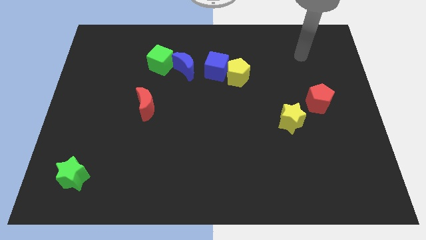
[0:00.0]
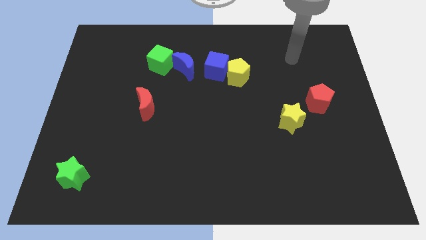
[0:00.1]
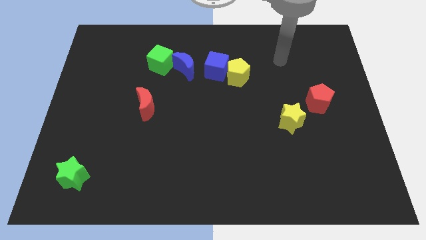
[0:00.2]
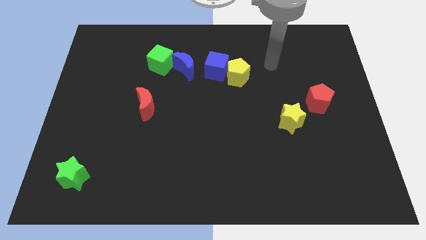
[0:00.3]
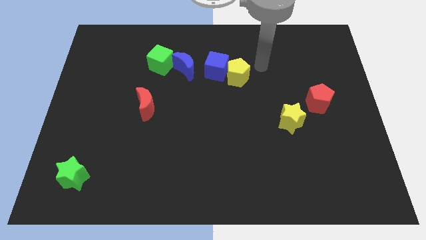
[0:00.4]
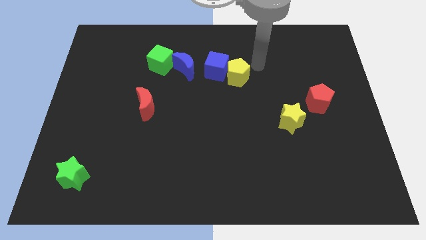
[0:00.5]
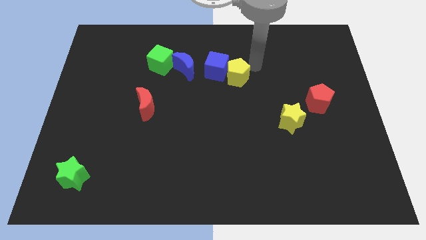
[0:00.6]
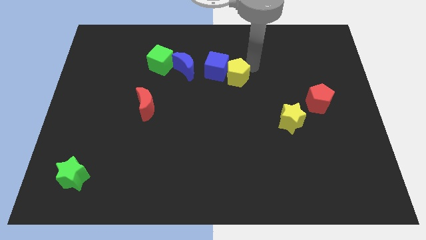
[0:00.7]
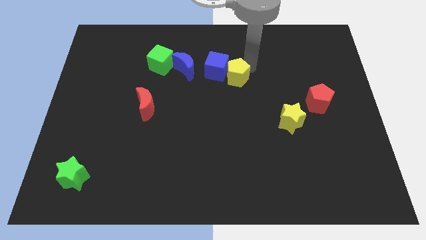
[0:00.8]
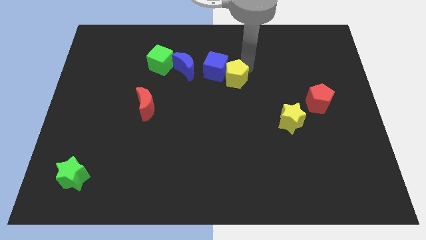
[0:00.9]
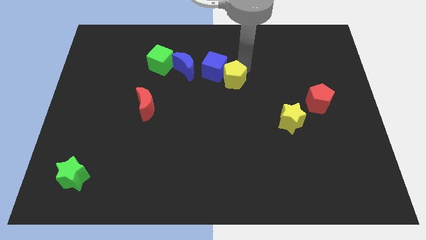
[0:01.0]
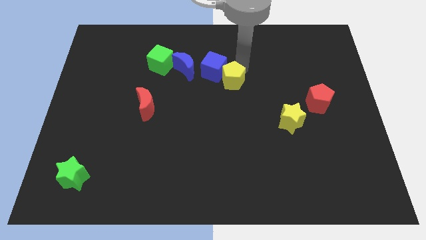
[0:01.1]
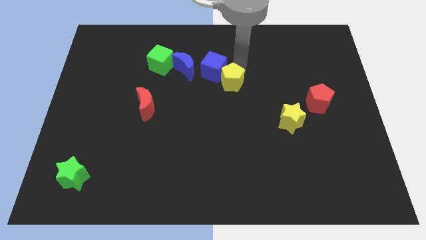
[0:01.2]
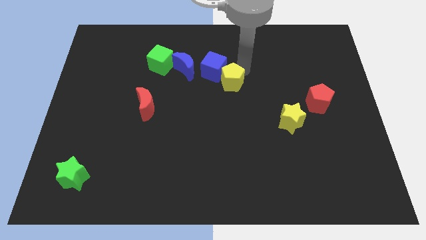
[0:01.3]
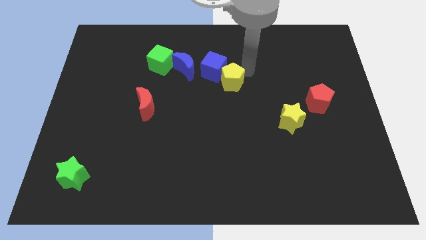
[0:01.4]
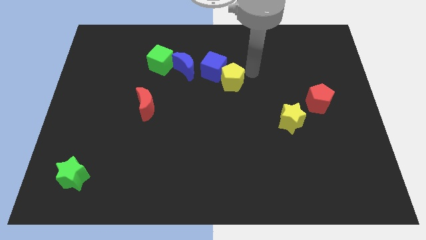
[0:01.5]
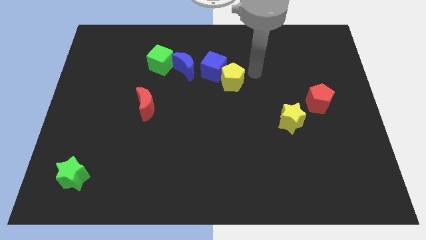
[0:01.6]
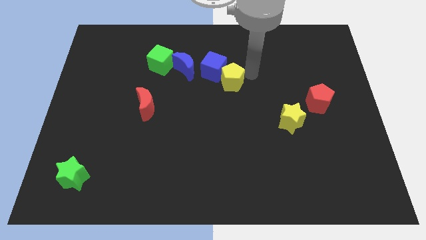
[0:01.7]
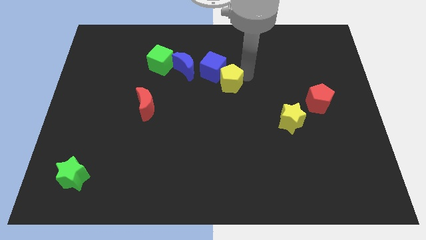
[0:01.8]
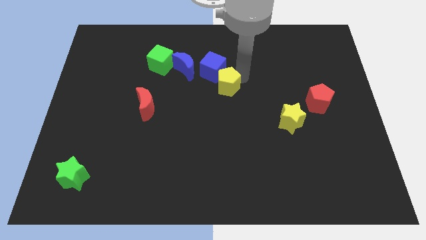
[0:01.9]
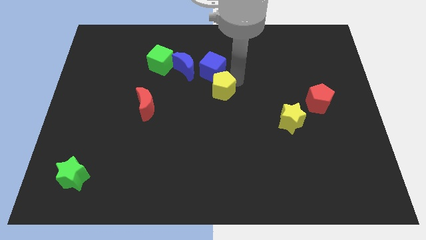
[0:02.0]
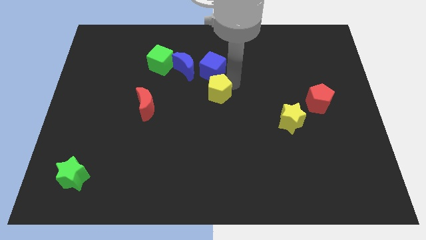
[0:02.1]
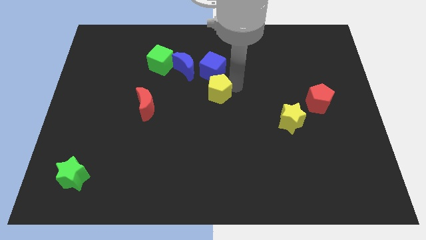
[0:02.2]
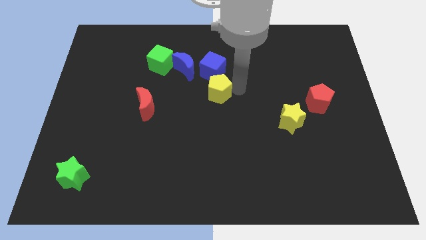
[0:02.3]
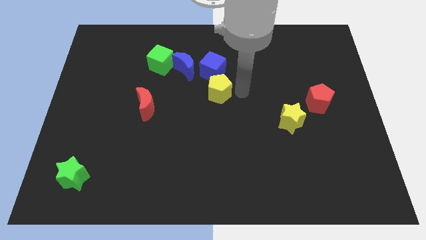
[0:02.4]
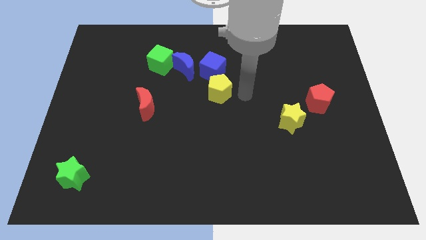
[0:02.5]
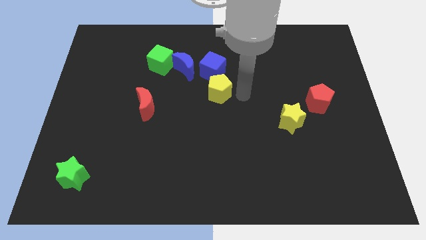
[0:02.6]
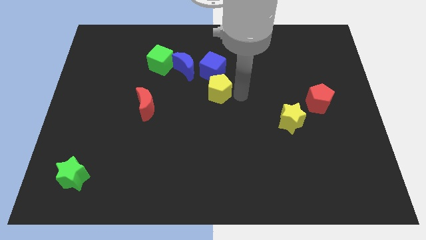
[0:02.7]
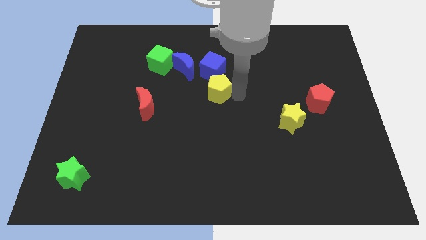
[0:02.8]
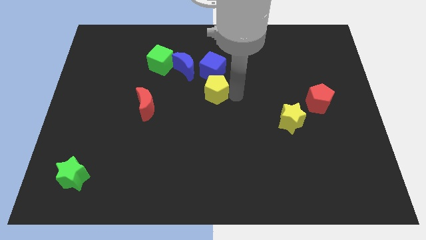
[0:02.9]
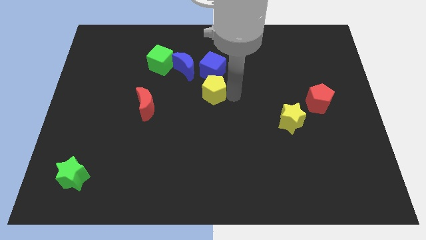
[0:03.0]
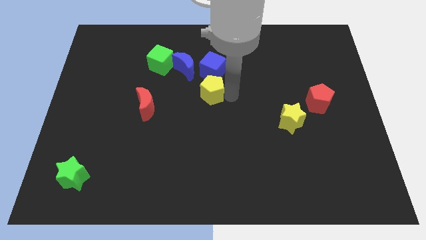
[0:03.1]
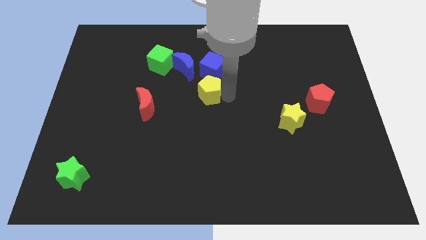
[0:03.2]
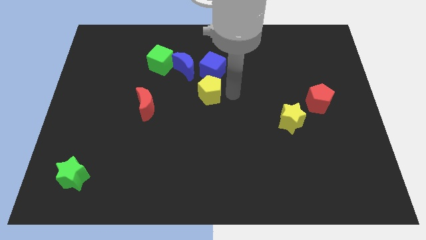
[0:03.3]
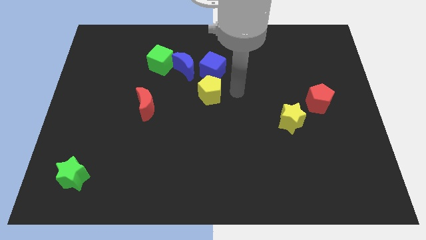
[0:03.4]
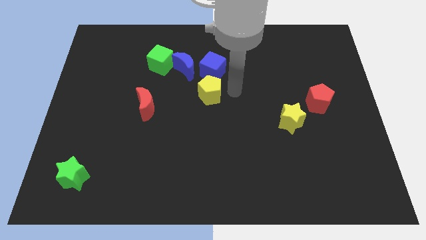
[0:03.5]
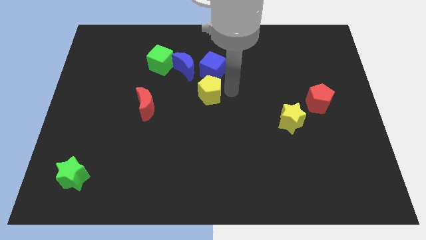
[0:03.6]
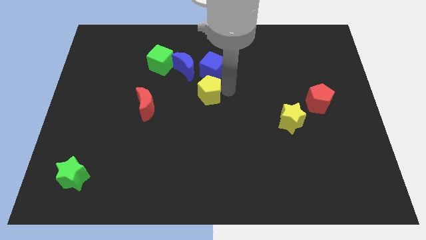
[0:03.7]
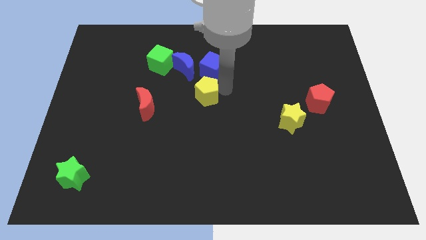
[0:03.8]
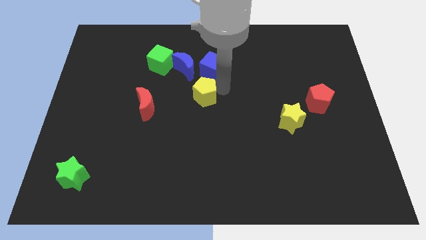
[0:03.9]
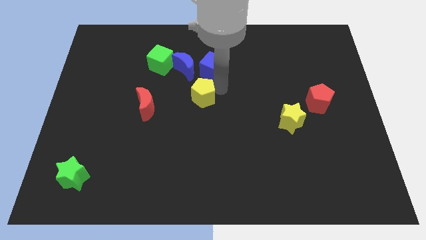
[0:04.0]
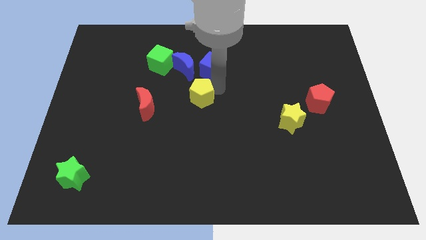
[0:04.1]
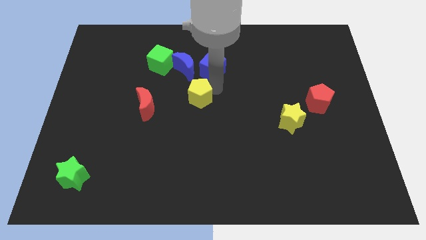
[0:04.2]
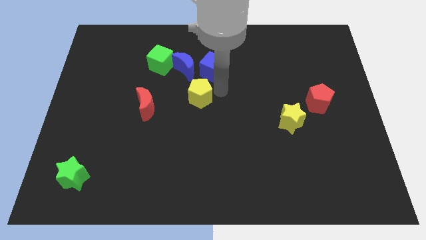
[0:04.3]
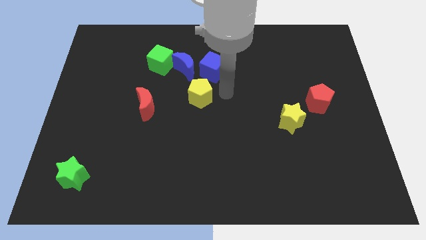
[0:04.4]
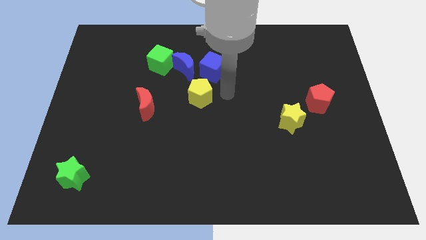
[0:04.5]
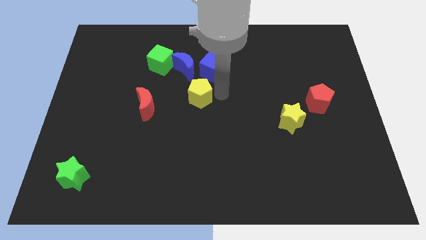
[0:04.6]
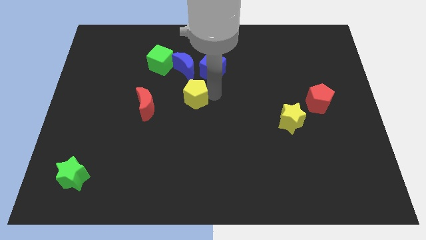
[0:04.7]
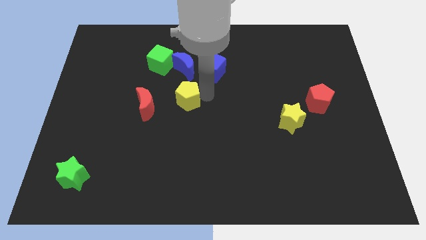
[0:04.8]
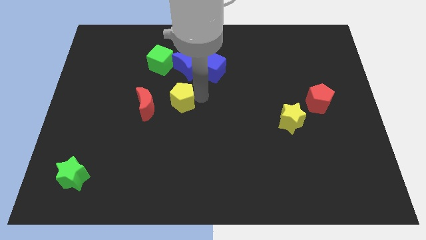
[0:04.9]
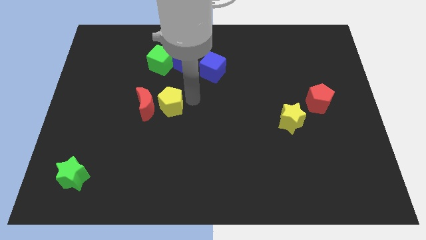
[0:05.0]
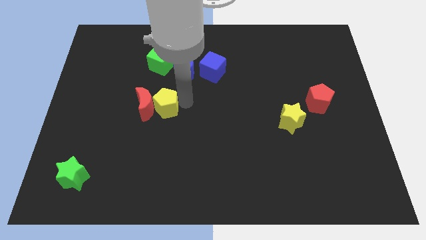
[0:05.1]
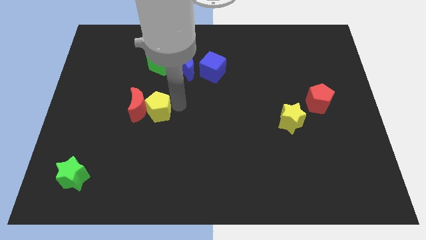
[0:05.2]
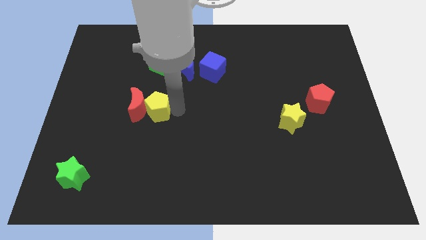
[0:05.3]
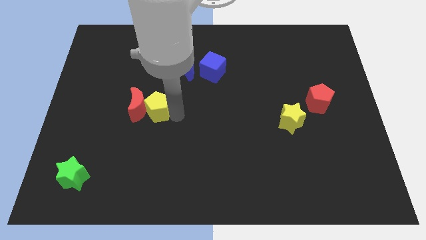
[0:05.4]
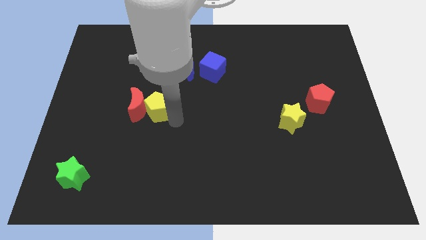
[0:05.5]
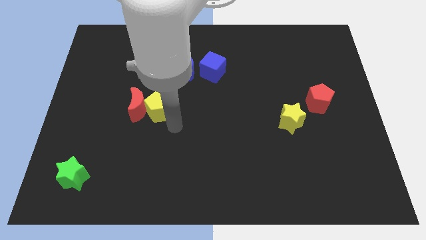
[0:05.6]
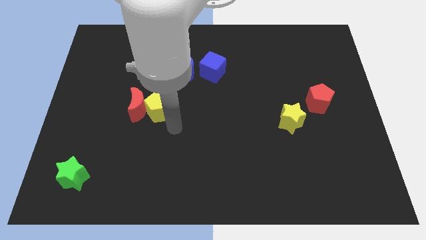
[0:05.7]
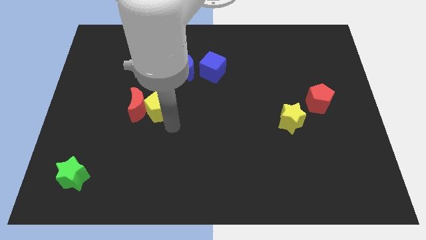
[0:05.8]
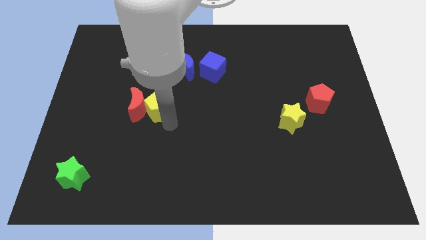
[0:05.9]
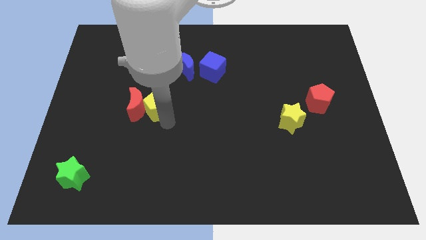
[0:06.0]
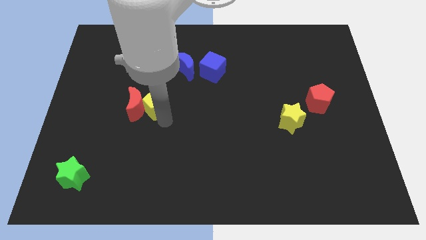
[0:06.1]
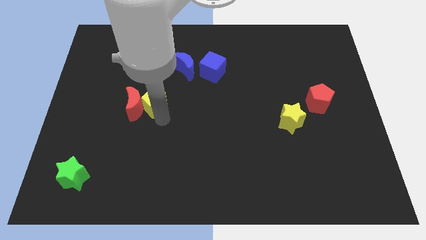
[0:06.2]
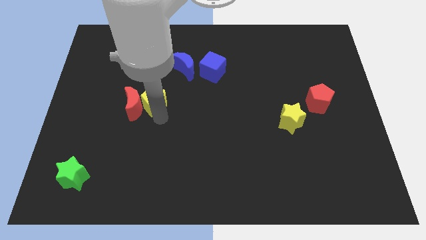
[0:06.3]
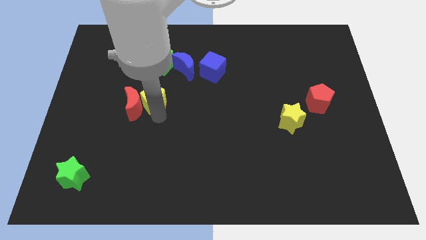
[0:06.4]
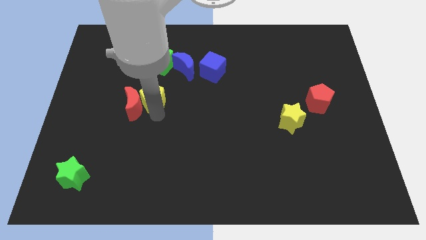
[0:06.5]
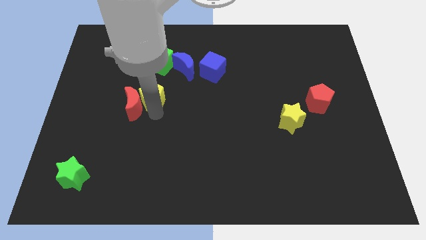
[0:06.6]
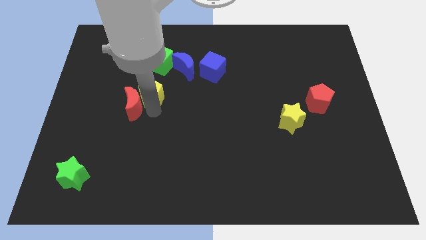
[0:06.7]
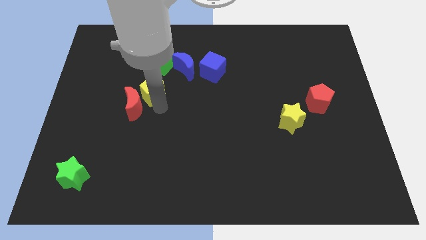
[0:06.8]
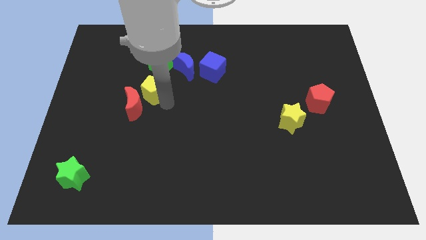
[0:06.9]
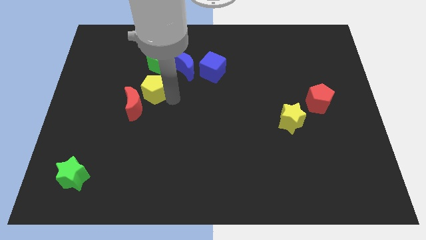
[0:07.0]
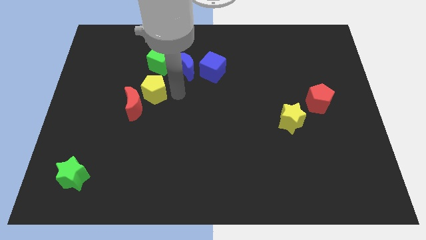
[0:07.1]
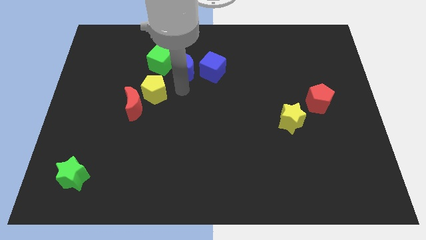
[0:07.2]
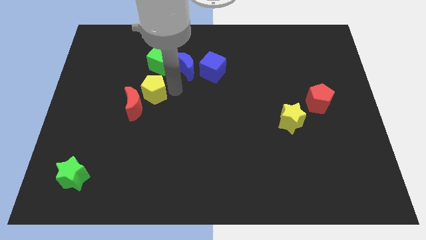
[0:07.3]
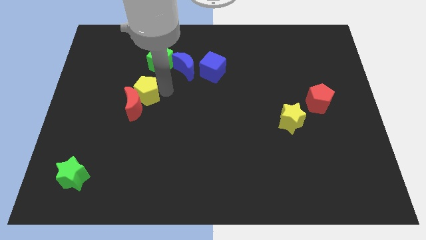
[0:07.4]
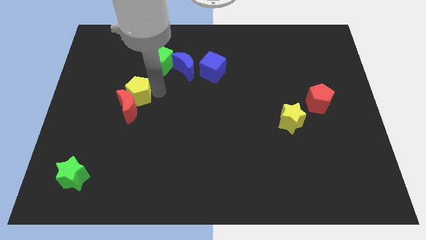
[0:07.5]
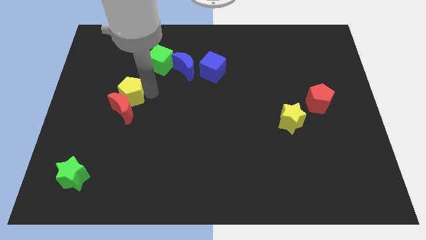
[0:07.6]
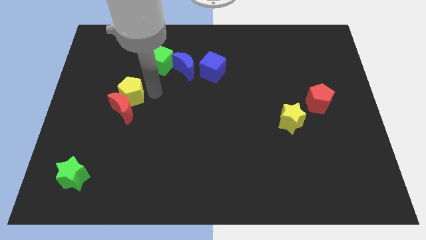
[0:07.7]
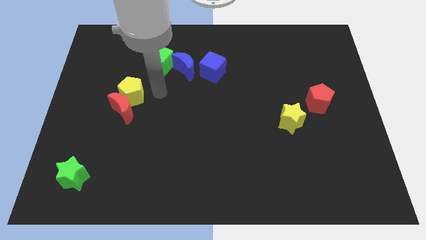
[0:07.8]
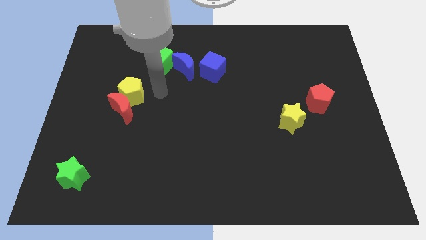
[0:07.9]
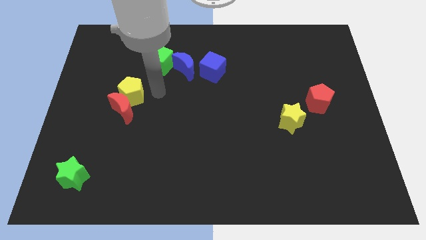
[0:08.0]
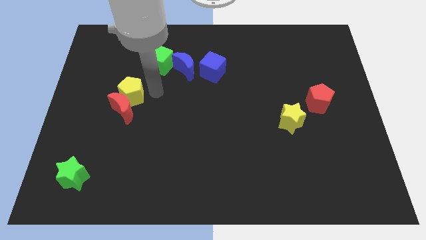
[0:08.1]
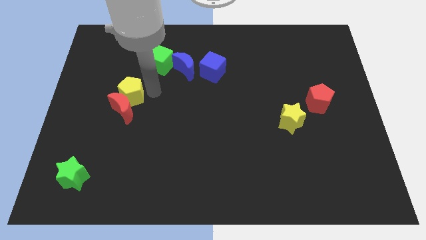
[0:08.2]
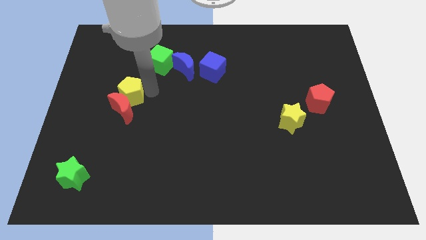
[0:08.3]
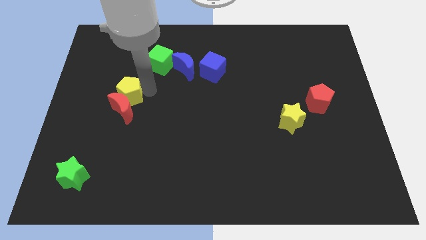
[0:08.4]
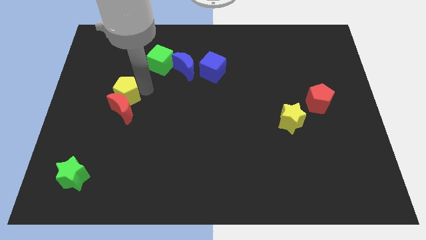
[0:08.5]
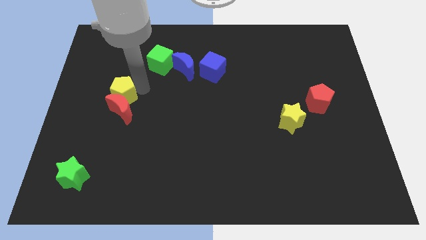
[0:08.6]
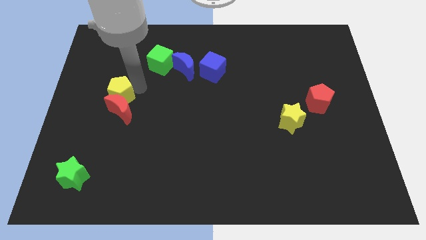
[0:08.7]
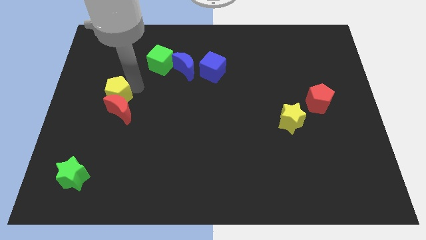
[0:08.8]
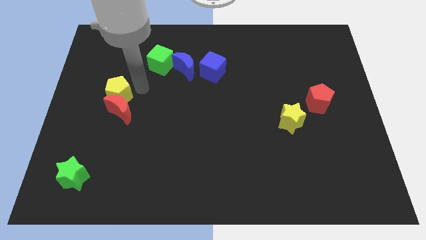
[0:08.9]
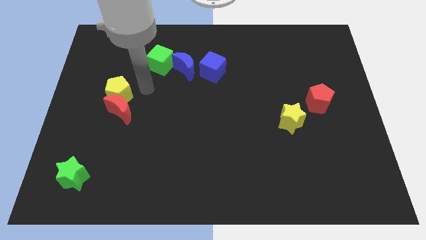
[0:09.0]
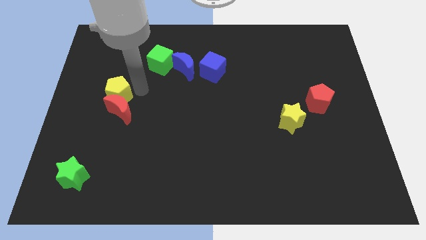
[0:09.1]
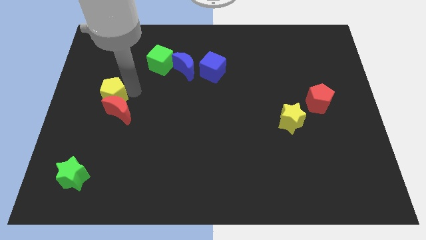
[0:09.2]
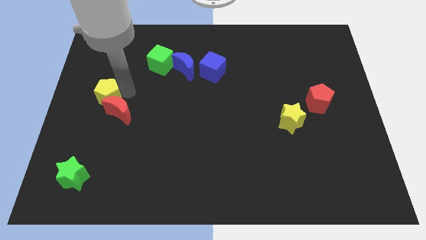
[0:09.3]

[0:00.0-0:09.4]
push the yellow pentagon to the left side
